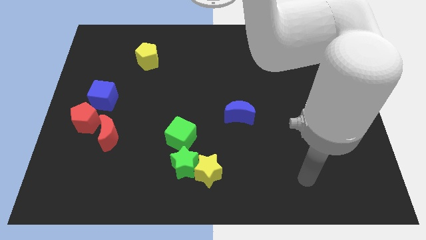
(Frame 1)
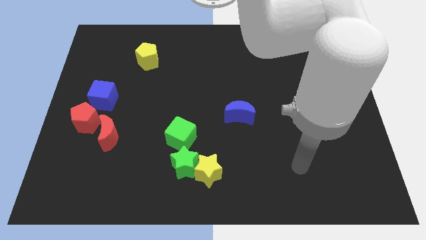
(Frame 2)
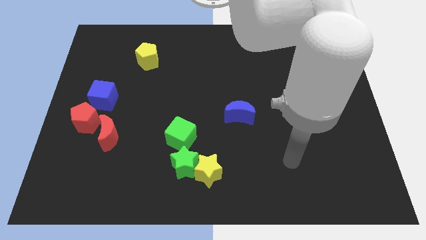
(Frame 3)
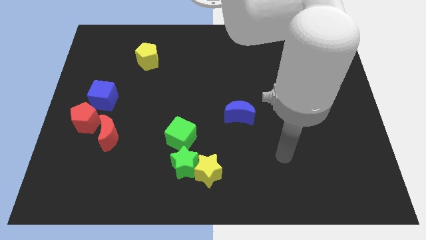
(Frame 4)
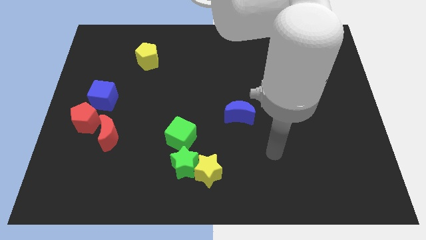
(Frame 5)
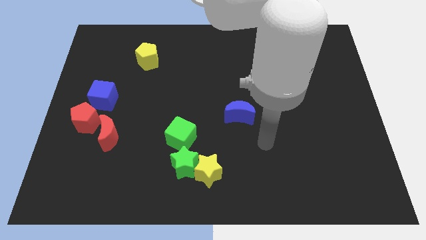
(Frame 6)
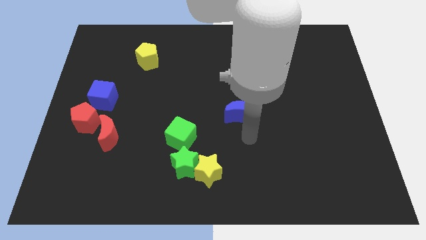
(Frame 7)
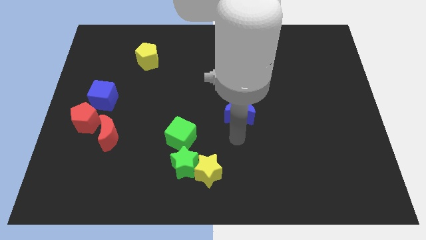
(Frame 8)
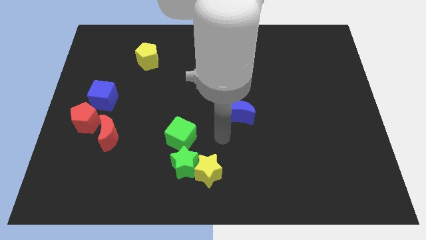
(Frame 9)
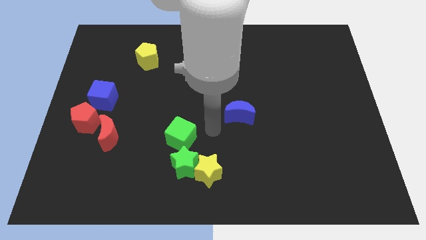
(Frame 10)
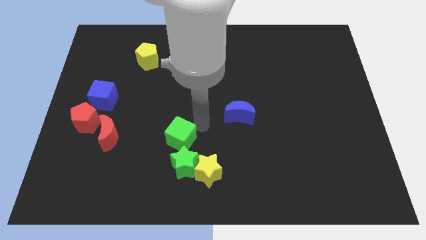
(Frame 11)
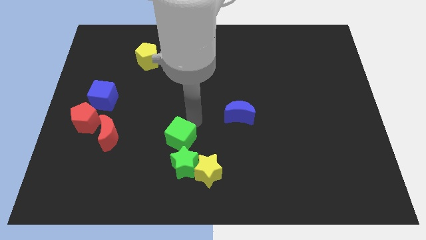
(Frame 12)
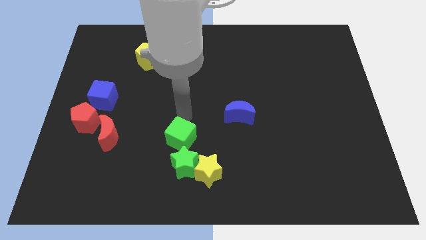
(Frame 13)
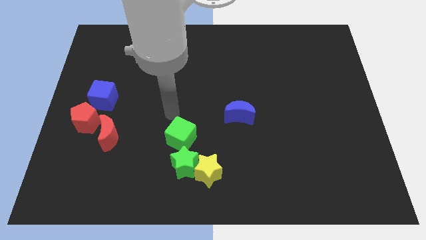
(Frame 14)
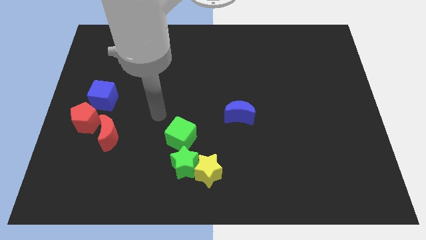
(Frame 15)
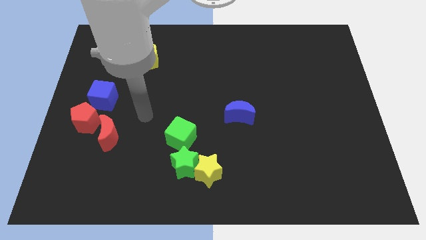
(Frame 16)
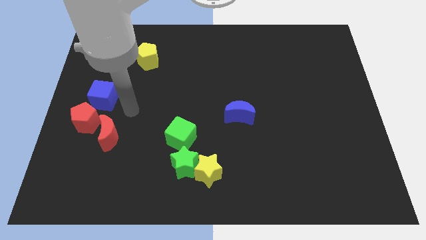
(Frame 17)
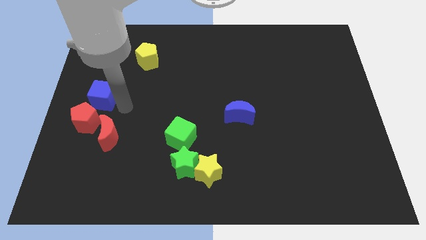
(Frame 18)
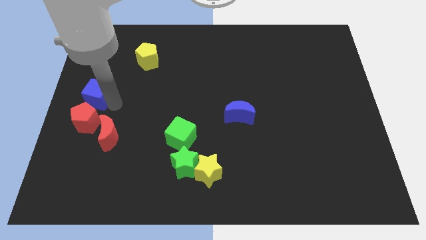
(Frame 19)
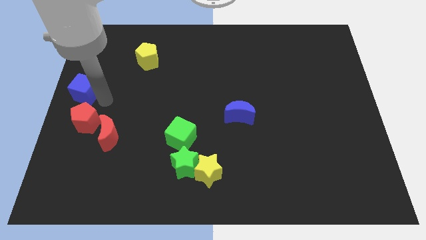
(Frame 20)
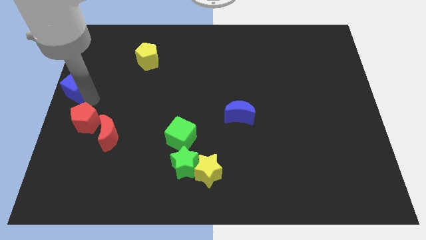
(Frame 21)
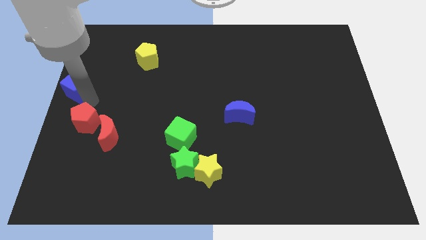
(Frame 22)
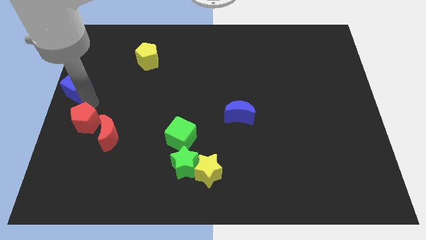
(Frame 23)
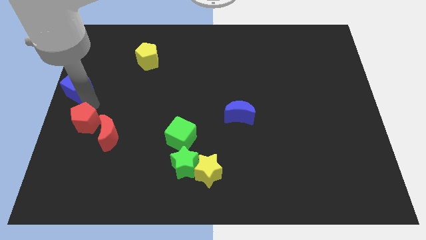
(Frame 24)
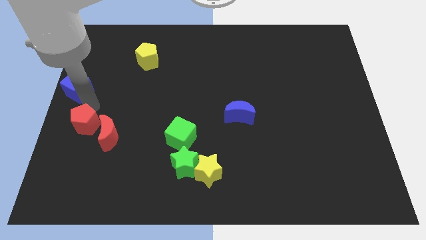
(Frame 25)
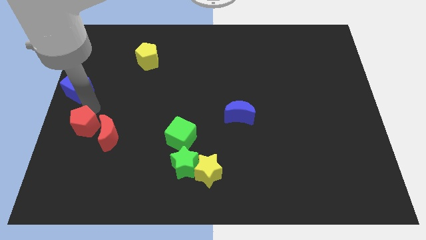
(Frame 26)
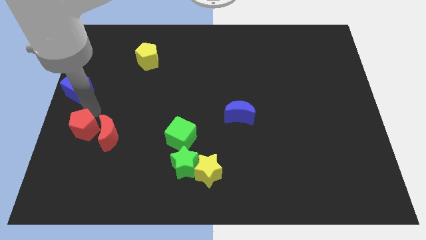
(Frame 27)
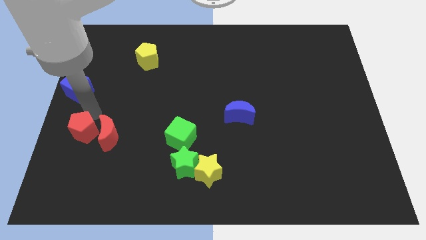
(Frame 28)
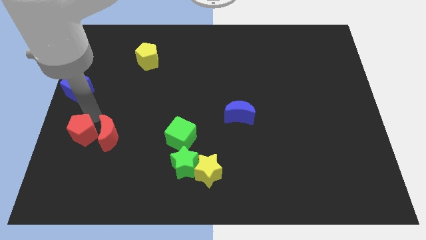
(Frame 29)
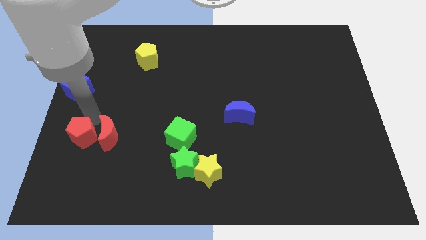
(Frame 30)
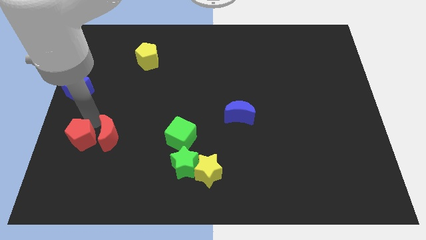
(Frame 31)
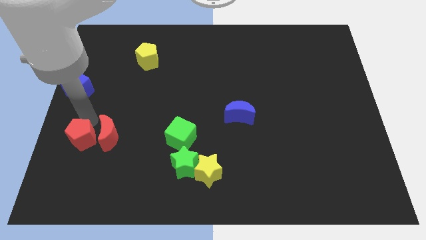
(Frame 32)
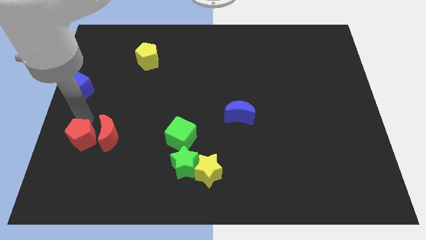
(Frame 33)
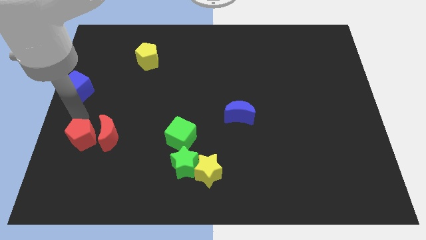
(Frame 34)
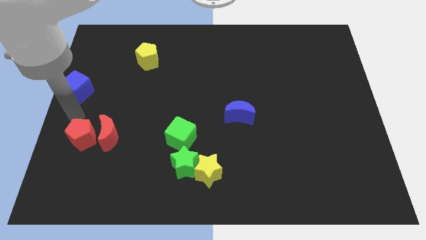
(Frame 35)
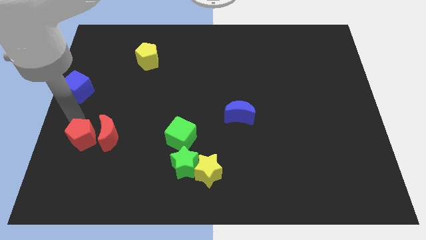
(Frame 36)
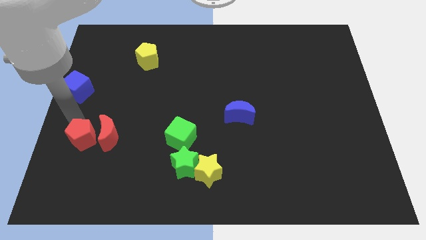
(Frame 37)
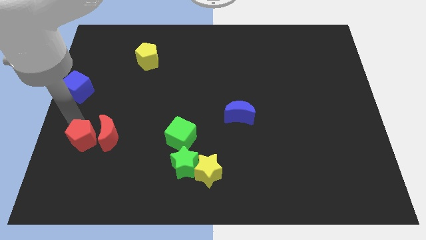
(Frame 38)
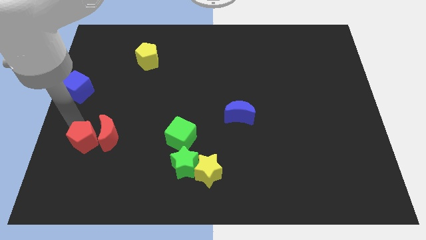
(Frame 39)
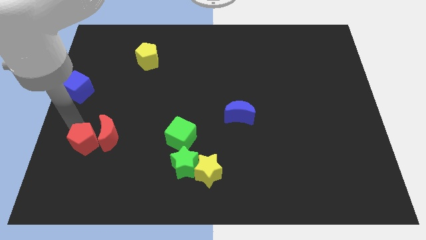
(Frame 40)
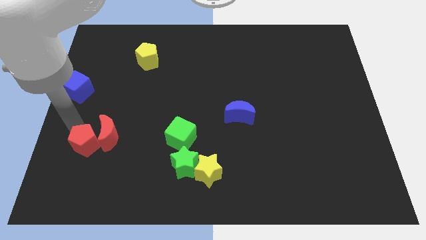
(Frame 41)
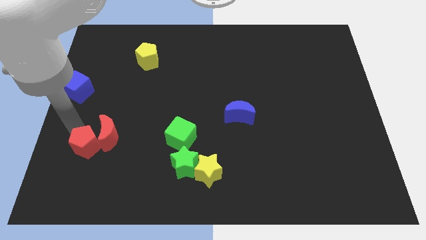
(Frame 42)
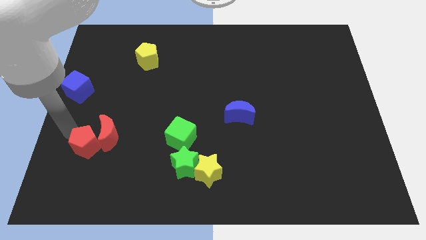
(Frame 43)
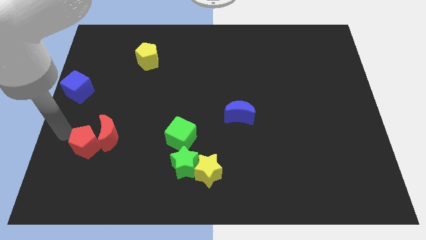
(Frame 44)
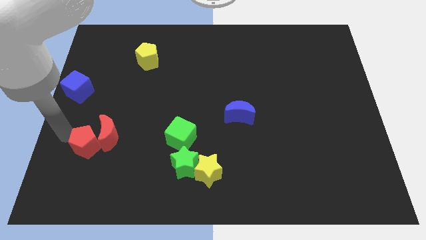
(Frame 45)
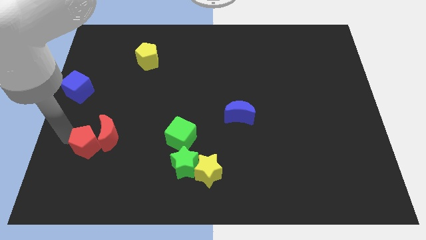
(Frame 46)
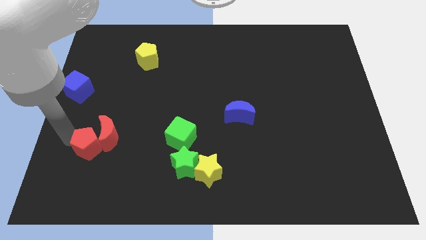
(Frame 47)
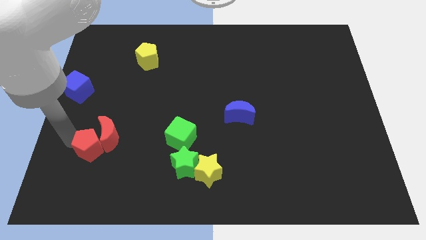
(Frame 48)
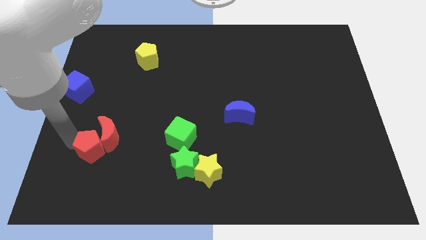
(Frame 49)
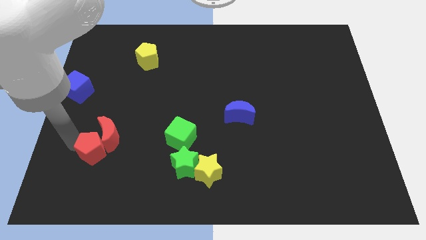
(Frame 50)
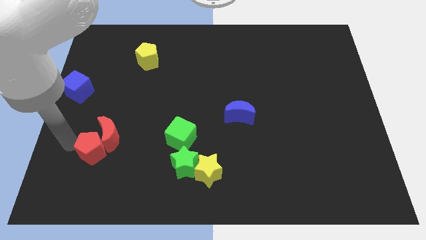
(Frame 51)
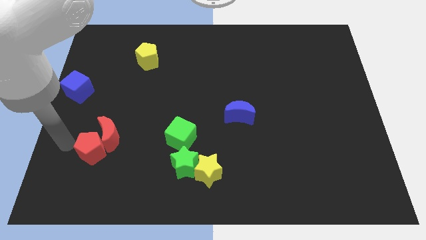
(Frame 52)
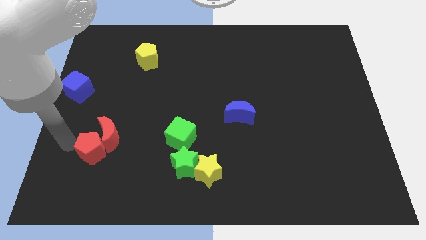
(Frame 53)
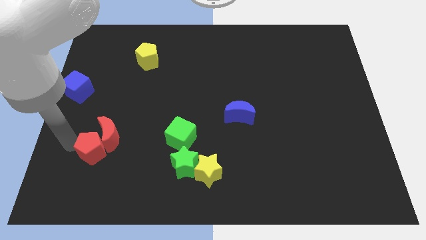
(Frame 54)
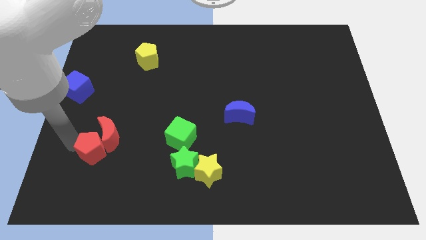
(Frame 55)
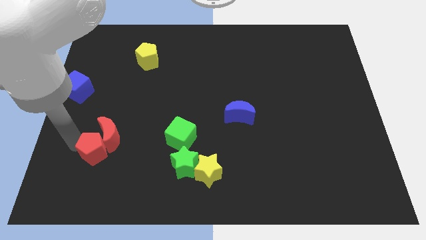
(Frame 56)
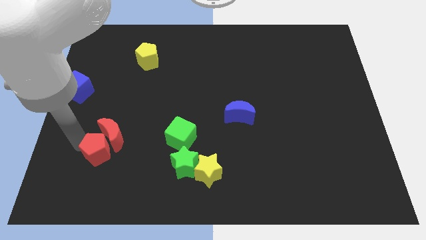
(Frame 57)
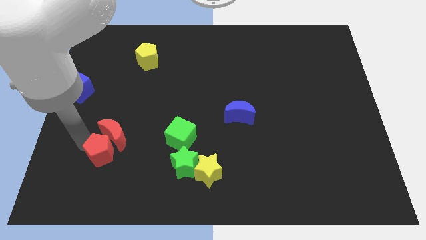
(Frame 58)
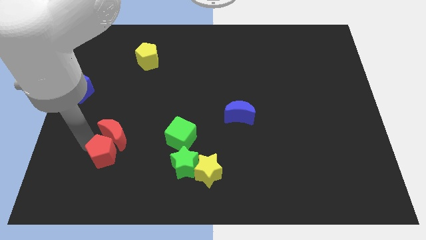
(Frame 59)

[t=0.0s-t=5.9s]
slide the red pentagon diagonally down and to the right of the red moon

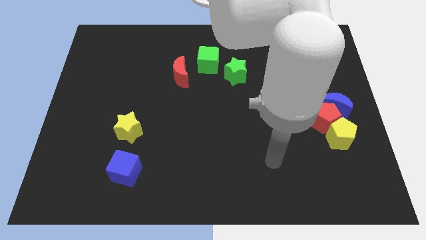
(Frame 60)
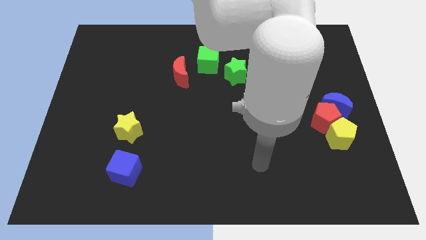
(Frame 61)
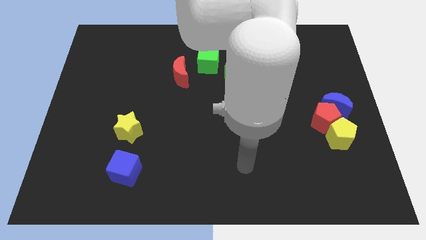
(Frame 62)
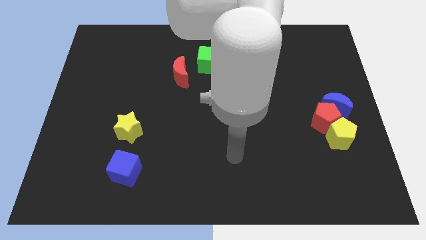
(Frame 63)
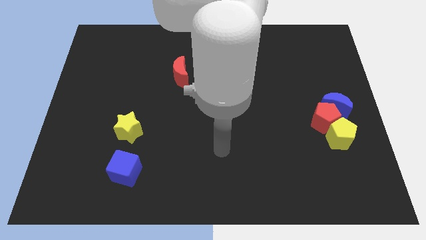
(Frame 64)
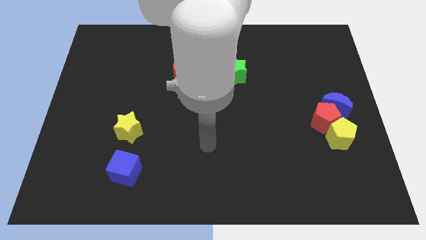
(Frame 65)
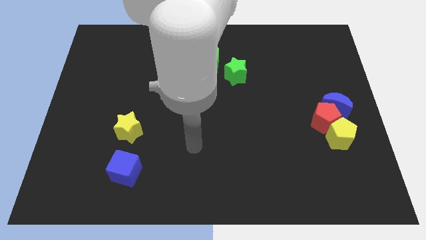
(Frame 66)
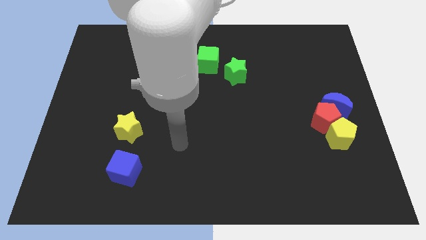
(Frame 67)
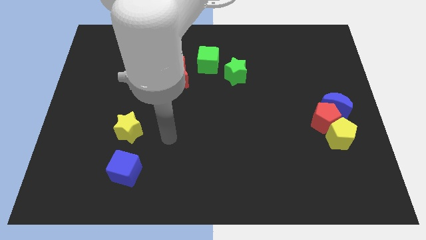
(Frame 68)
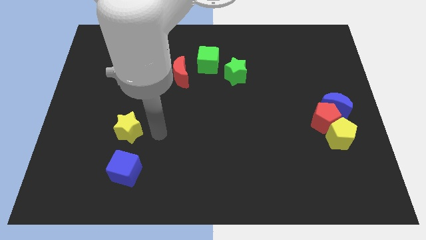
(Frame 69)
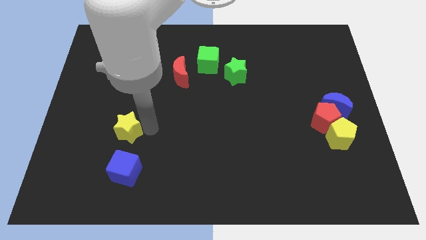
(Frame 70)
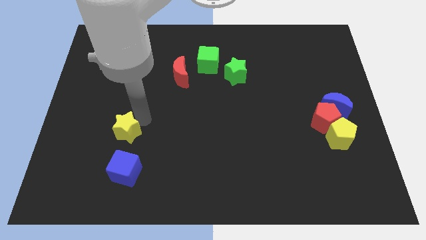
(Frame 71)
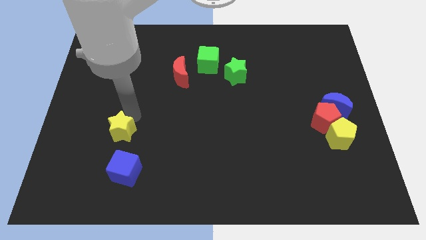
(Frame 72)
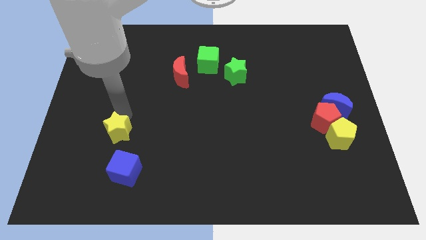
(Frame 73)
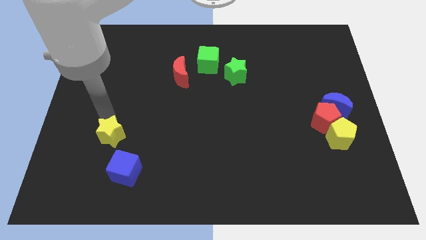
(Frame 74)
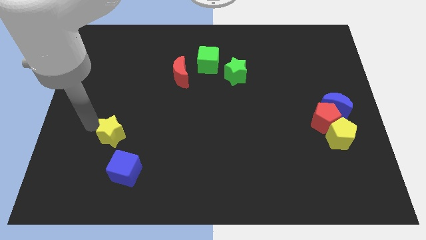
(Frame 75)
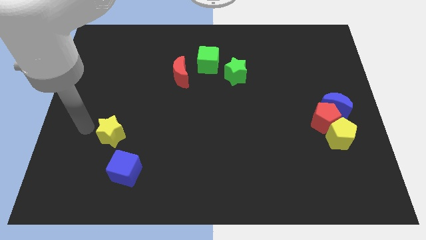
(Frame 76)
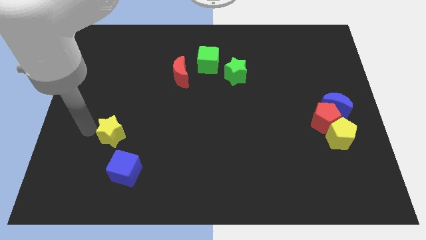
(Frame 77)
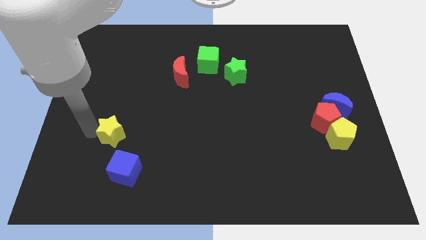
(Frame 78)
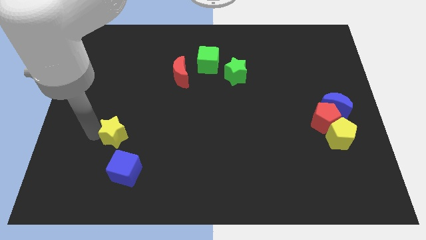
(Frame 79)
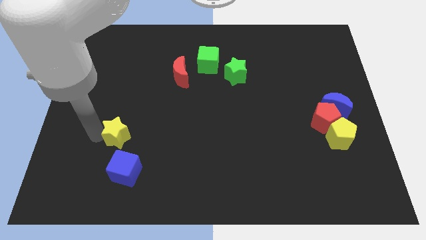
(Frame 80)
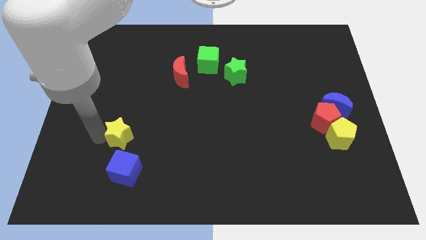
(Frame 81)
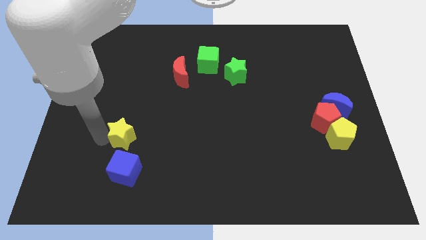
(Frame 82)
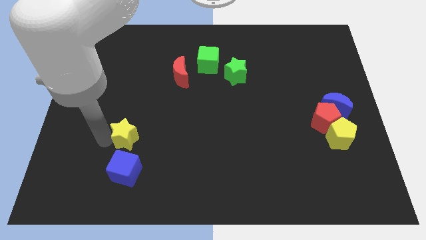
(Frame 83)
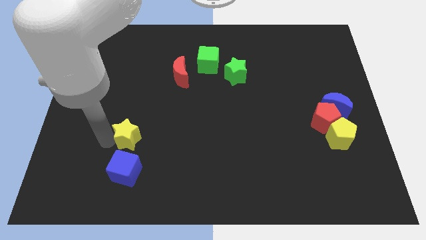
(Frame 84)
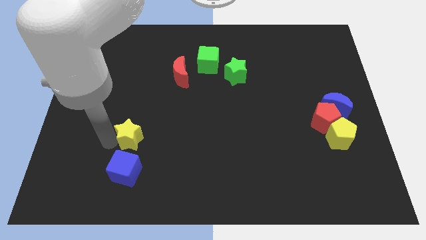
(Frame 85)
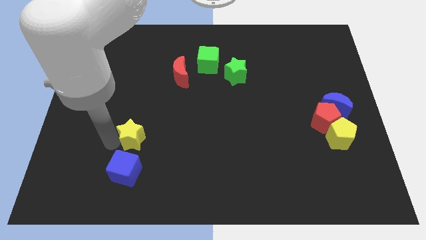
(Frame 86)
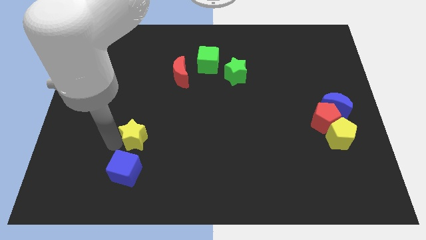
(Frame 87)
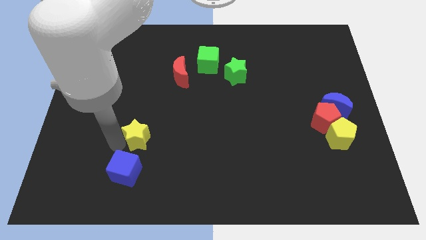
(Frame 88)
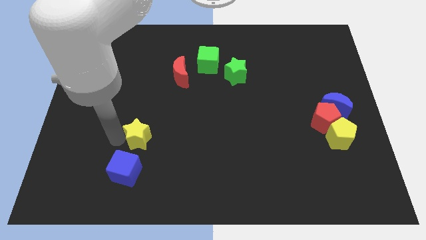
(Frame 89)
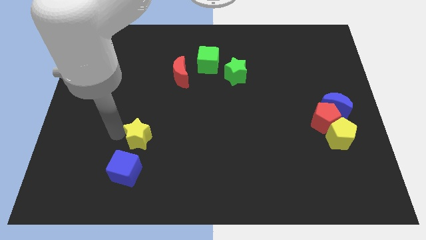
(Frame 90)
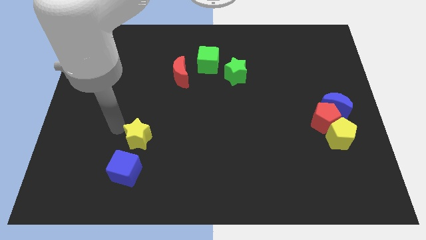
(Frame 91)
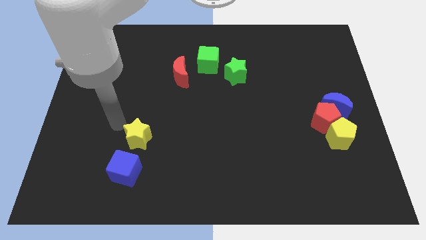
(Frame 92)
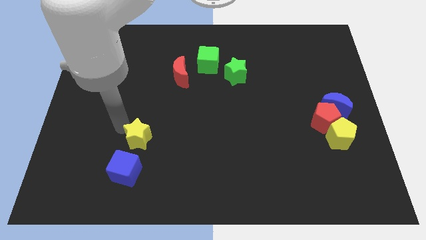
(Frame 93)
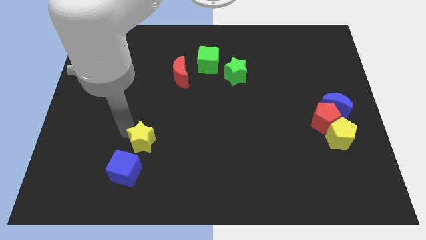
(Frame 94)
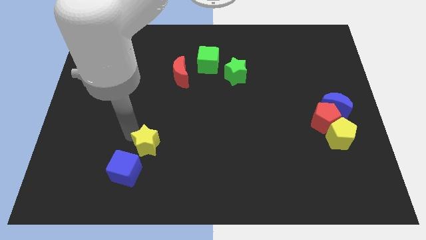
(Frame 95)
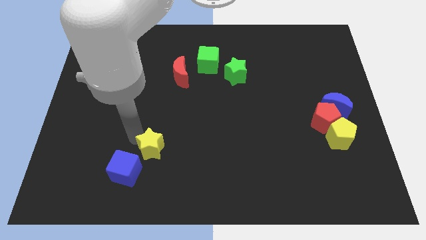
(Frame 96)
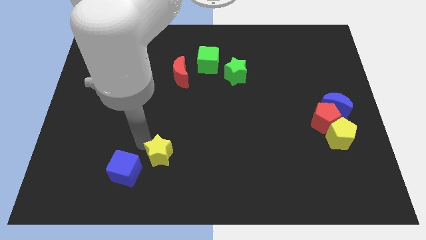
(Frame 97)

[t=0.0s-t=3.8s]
slide the yellow star just right of the blue cube
